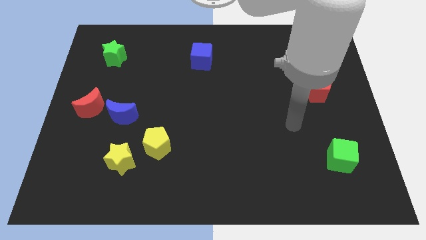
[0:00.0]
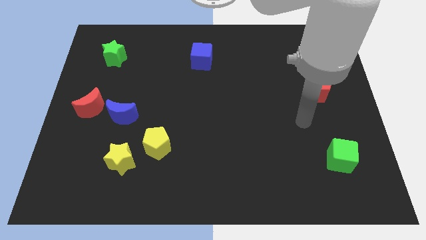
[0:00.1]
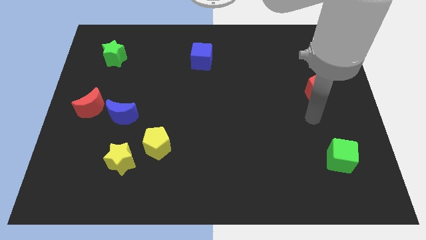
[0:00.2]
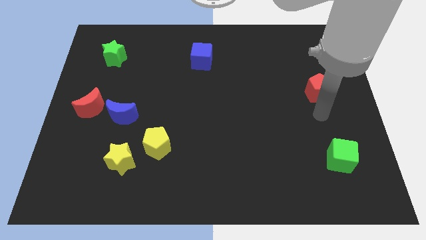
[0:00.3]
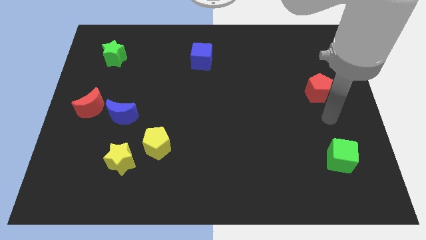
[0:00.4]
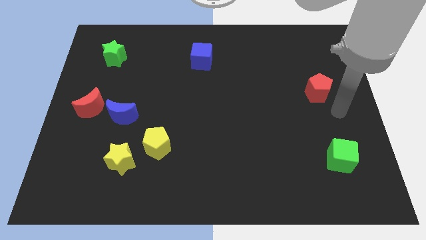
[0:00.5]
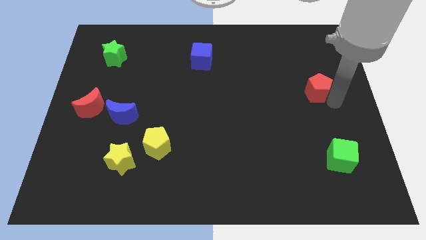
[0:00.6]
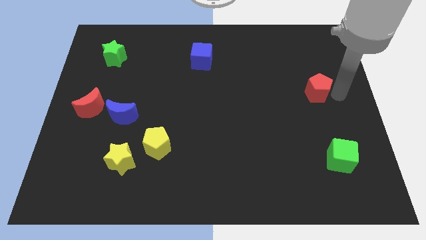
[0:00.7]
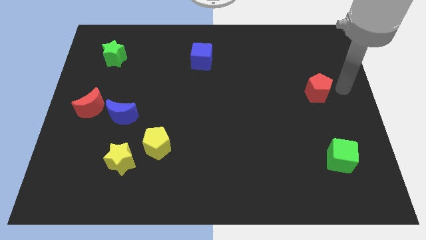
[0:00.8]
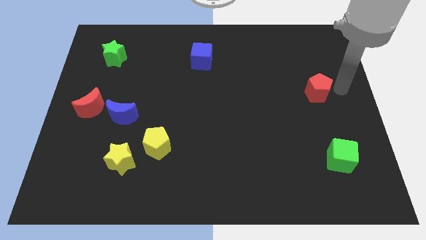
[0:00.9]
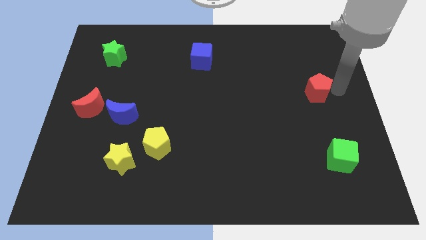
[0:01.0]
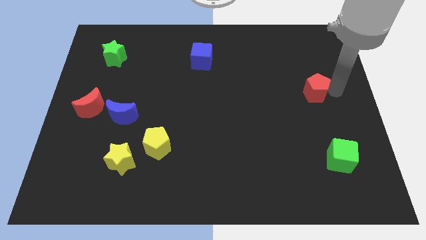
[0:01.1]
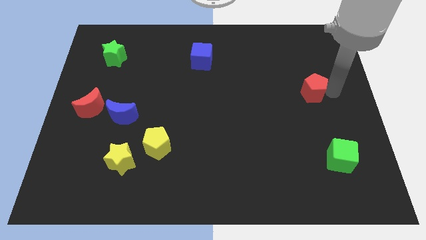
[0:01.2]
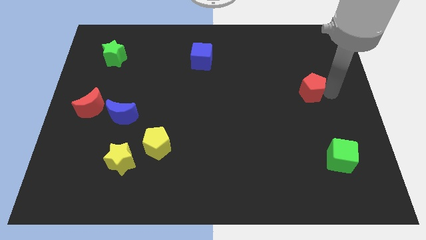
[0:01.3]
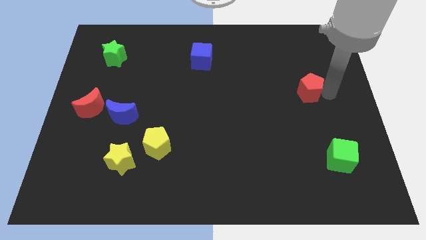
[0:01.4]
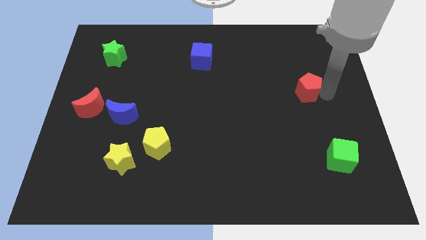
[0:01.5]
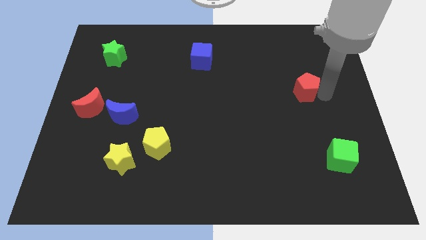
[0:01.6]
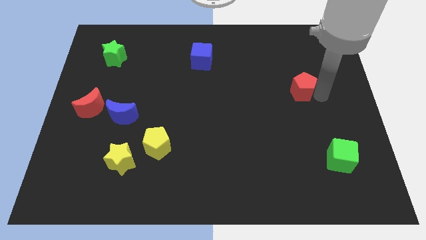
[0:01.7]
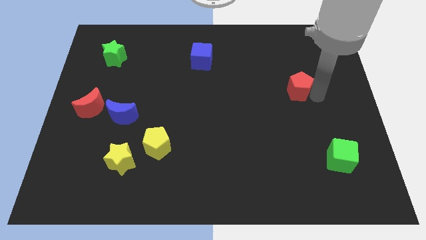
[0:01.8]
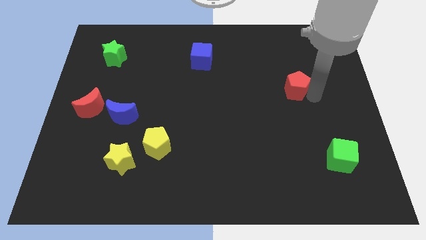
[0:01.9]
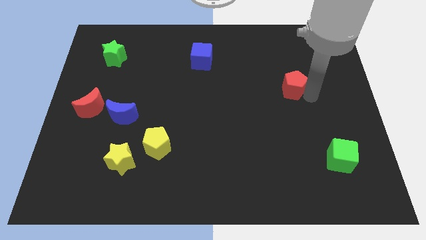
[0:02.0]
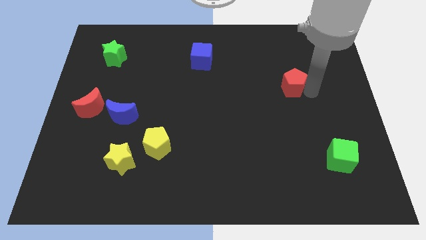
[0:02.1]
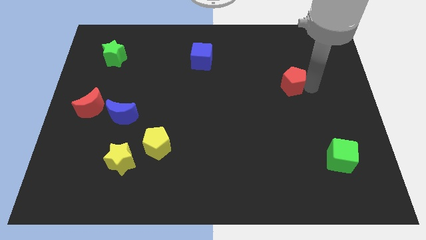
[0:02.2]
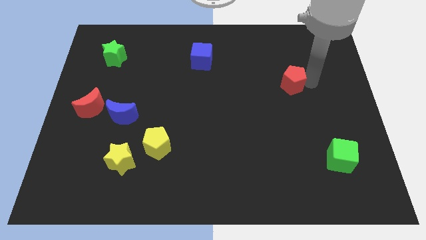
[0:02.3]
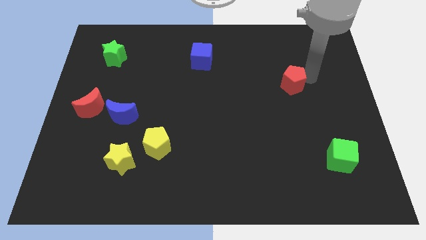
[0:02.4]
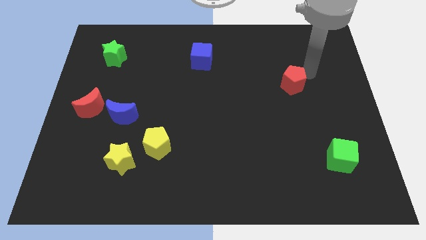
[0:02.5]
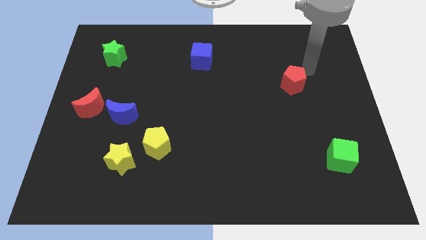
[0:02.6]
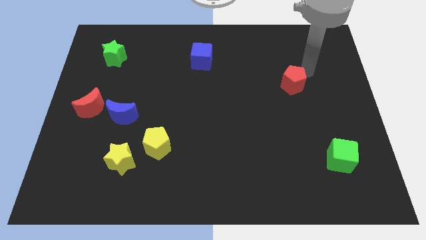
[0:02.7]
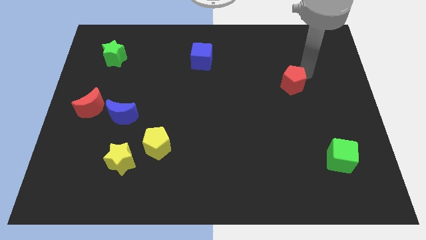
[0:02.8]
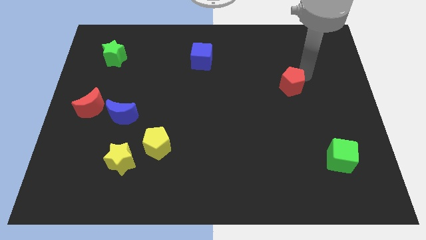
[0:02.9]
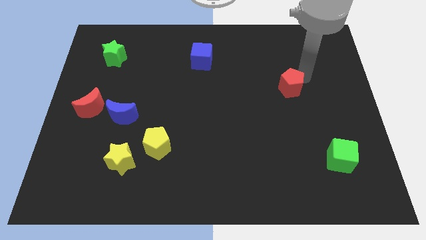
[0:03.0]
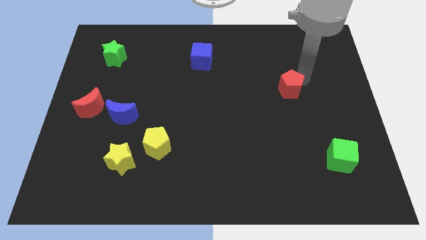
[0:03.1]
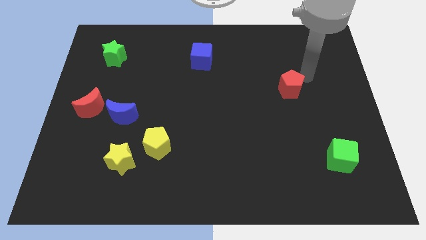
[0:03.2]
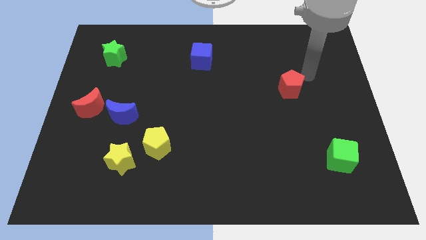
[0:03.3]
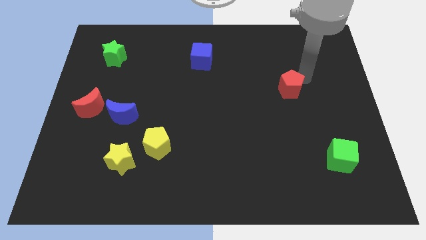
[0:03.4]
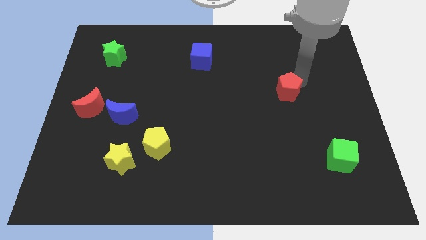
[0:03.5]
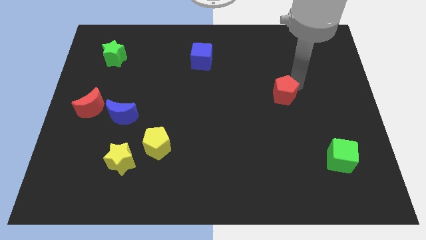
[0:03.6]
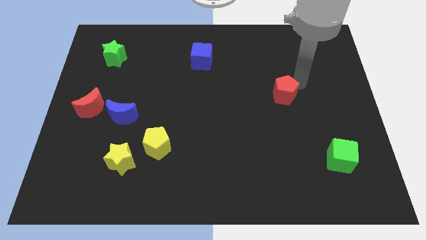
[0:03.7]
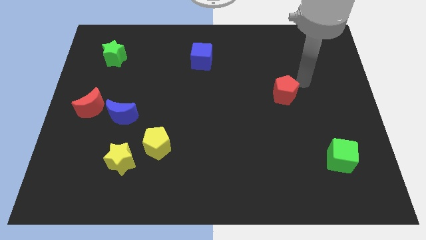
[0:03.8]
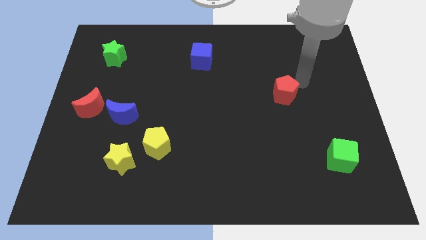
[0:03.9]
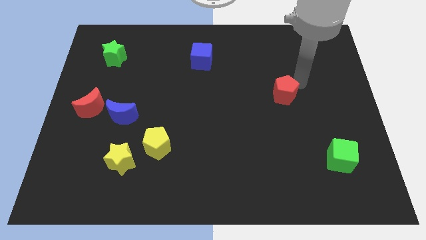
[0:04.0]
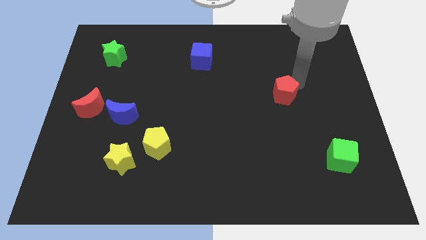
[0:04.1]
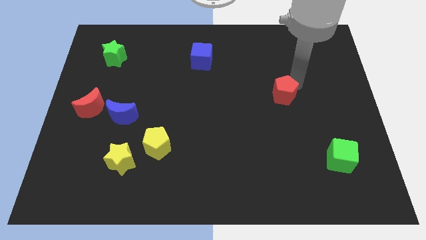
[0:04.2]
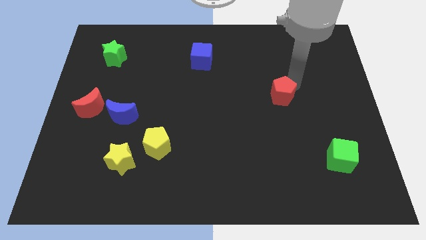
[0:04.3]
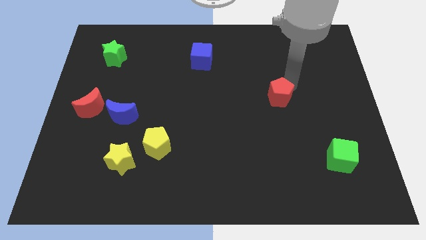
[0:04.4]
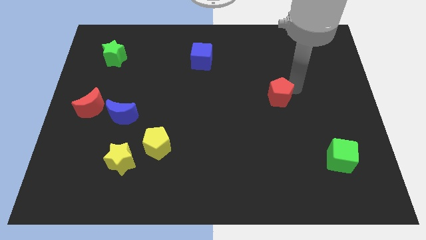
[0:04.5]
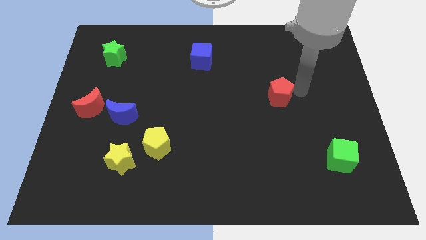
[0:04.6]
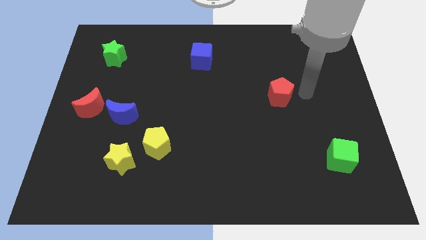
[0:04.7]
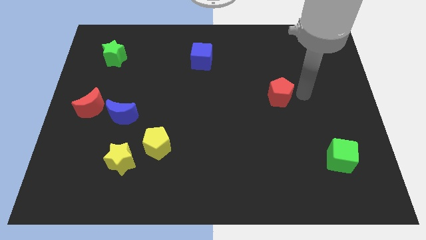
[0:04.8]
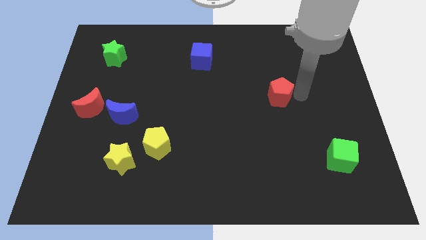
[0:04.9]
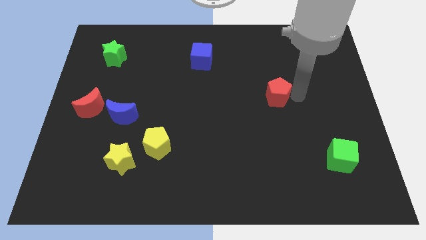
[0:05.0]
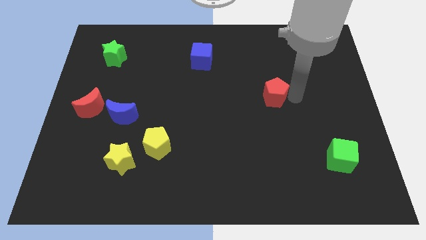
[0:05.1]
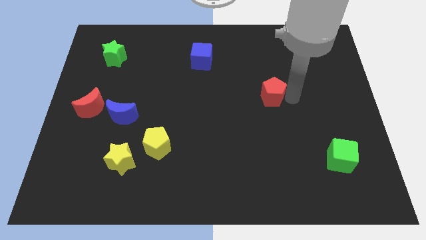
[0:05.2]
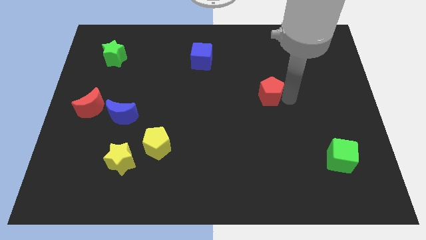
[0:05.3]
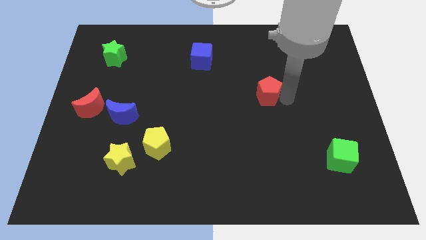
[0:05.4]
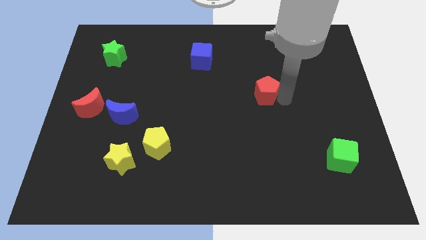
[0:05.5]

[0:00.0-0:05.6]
push the red pentagon to the middle
